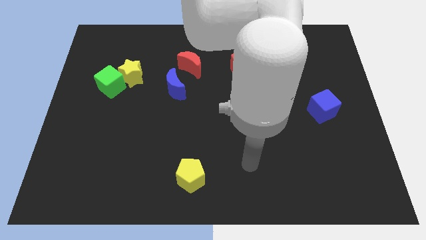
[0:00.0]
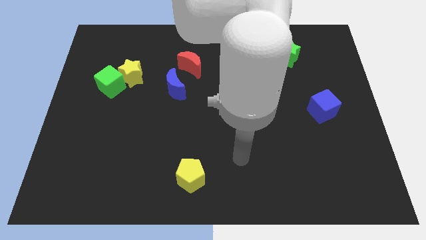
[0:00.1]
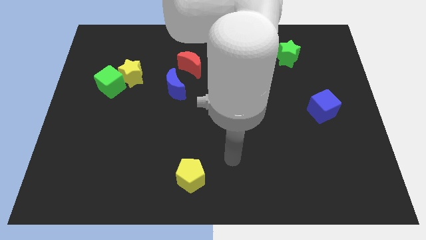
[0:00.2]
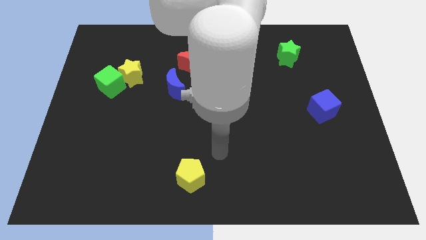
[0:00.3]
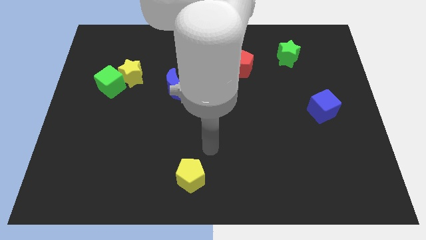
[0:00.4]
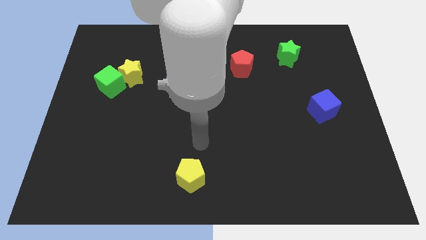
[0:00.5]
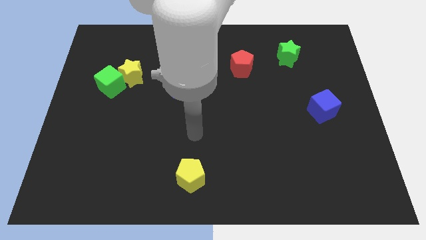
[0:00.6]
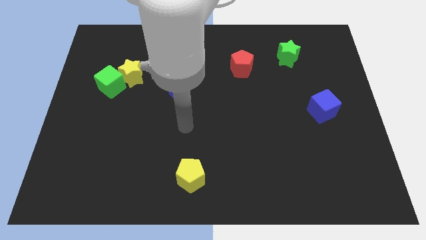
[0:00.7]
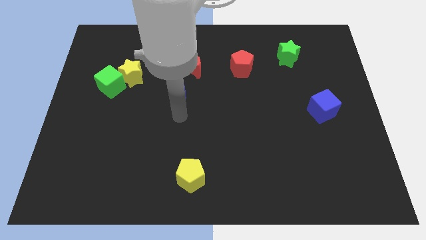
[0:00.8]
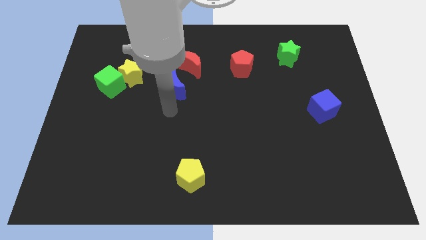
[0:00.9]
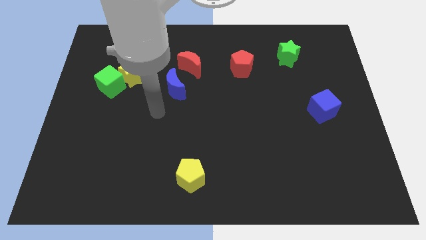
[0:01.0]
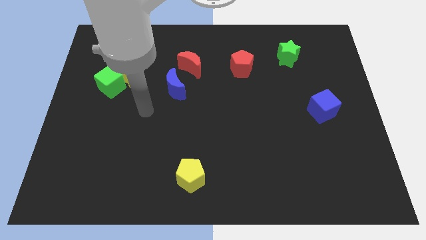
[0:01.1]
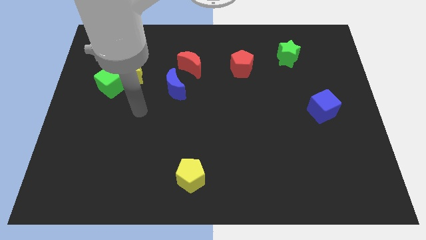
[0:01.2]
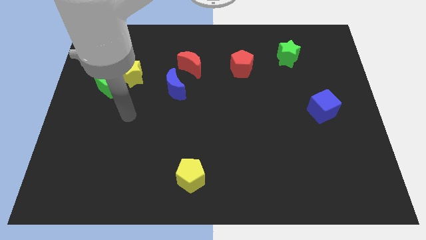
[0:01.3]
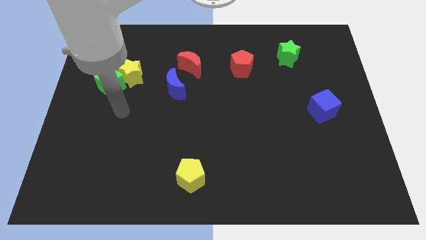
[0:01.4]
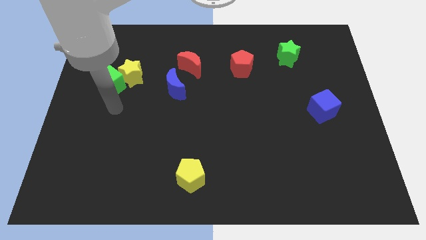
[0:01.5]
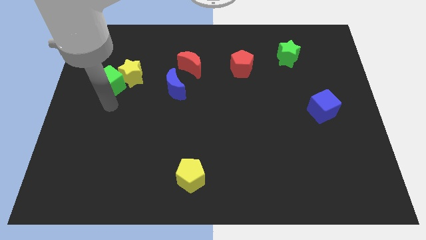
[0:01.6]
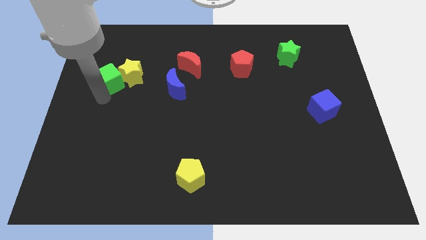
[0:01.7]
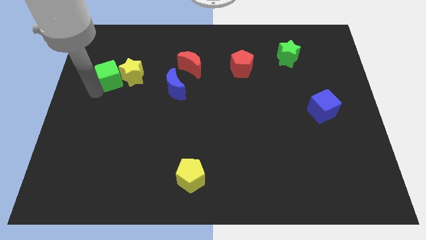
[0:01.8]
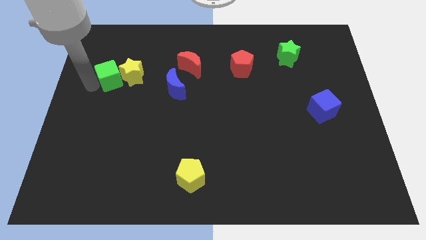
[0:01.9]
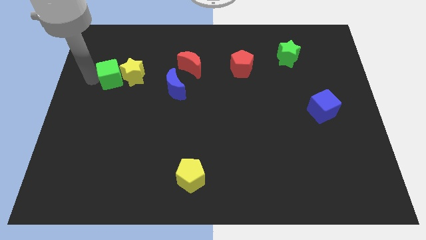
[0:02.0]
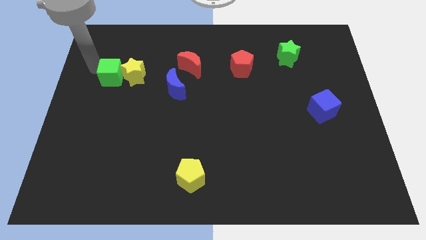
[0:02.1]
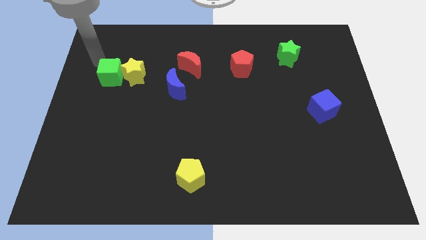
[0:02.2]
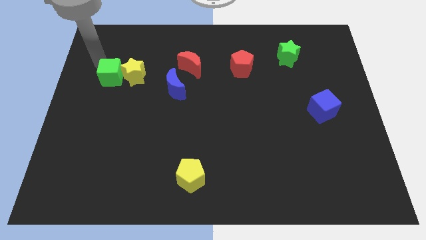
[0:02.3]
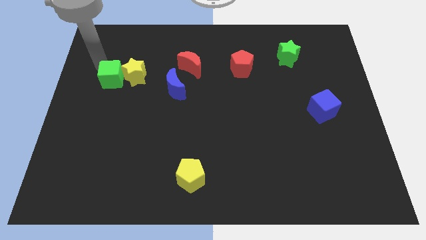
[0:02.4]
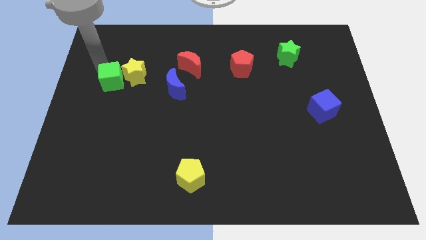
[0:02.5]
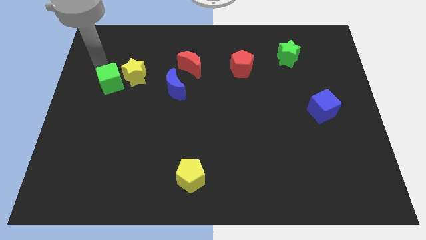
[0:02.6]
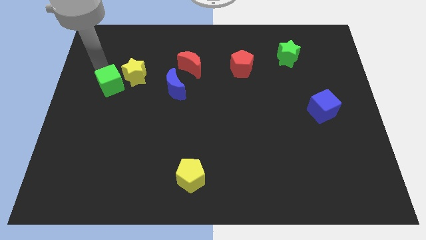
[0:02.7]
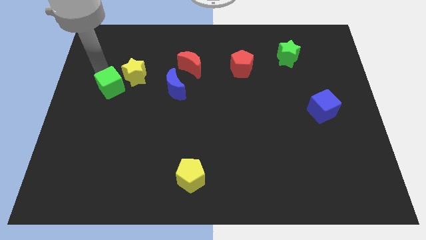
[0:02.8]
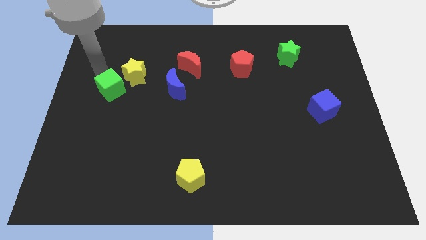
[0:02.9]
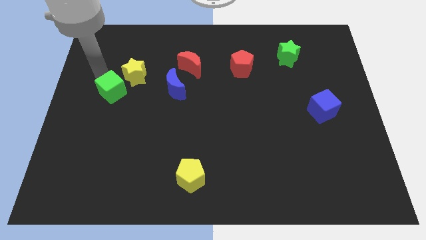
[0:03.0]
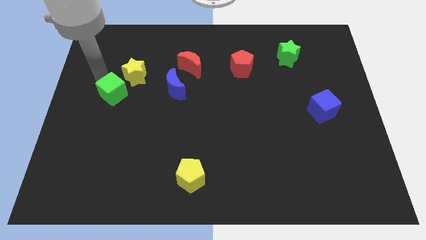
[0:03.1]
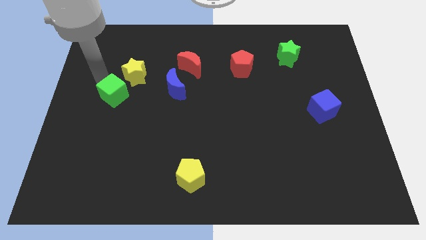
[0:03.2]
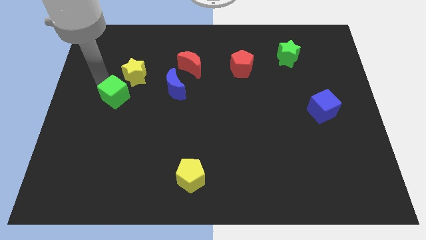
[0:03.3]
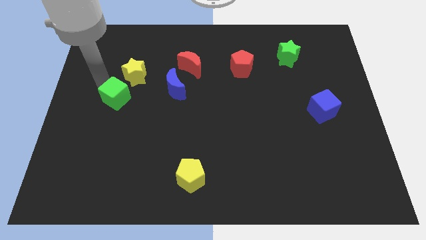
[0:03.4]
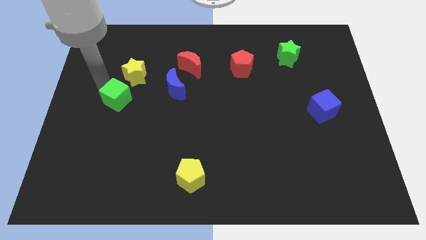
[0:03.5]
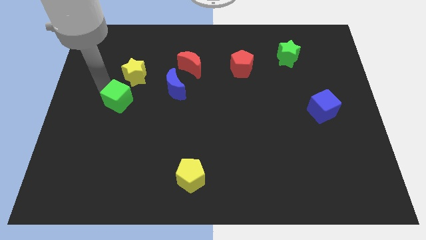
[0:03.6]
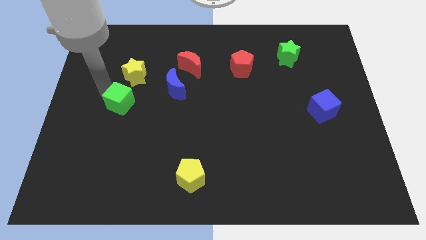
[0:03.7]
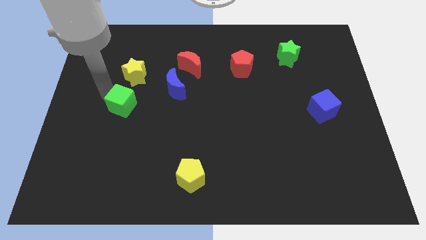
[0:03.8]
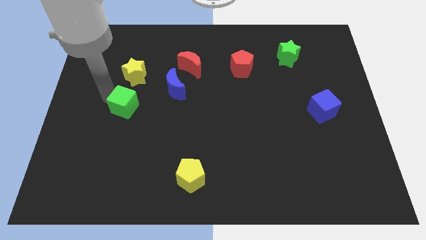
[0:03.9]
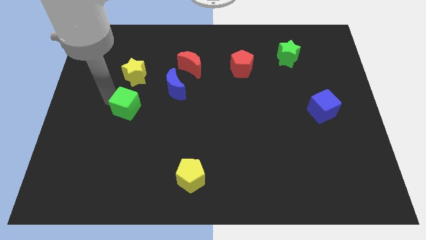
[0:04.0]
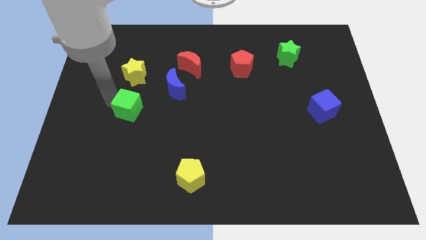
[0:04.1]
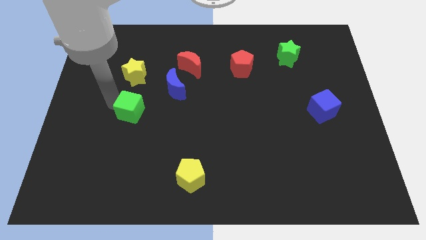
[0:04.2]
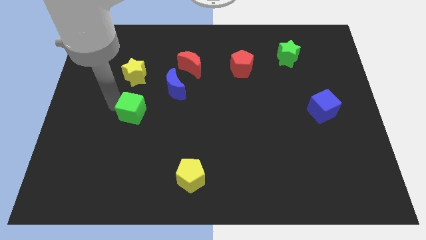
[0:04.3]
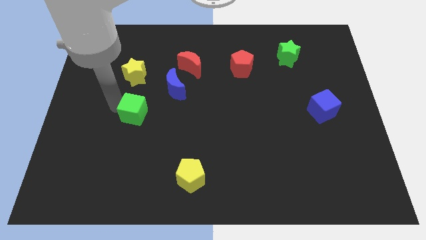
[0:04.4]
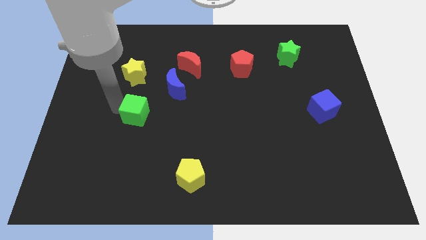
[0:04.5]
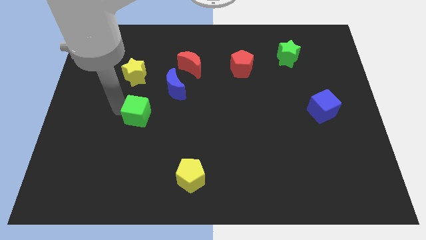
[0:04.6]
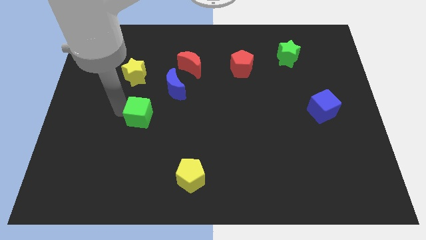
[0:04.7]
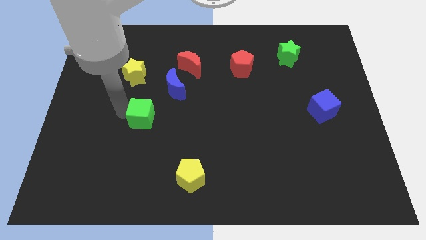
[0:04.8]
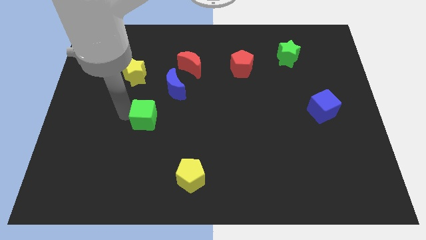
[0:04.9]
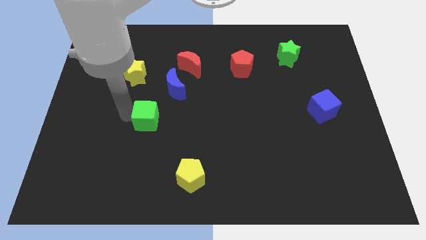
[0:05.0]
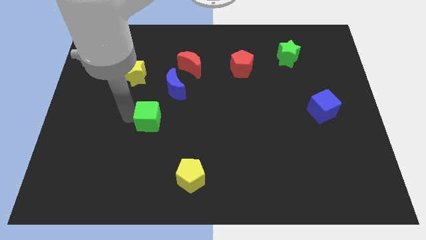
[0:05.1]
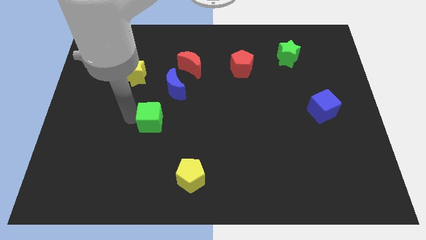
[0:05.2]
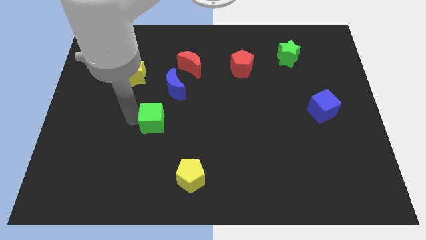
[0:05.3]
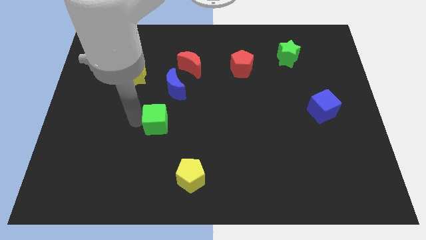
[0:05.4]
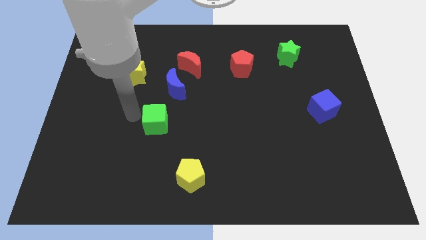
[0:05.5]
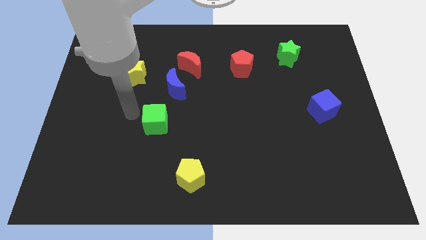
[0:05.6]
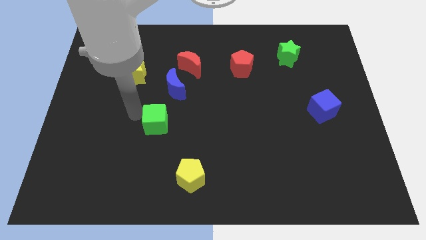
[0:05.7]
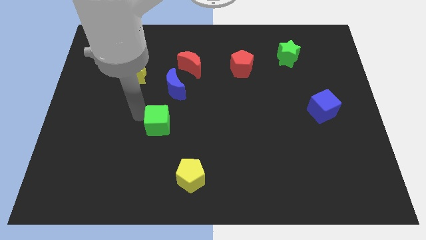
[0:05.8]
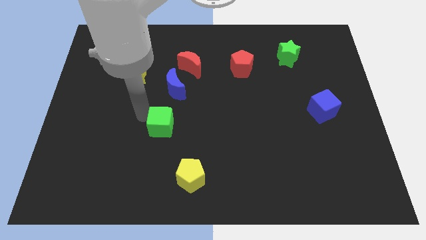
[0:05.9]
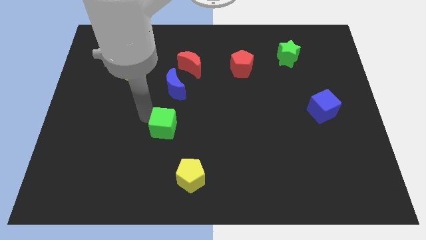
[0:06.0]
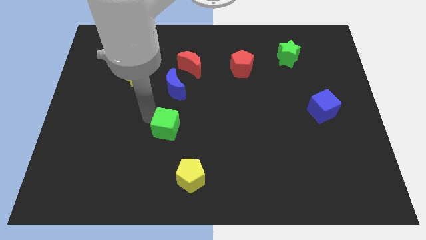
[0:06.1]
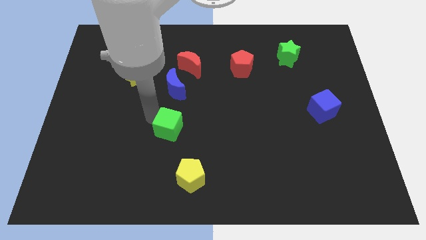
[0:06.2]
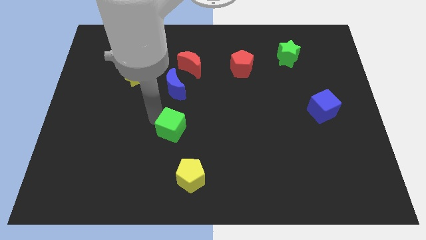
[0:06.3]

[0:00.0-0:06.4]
push the green cube to the top of the yellow pentagon

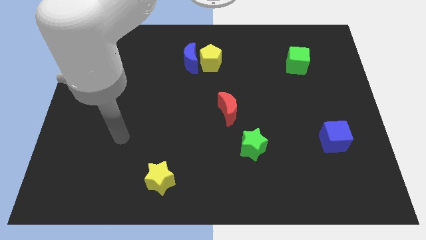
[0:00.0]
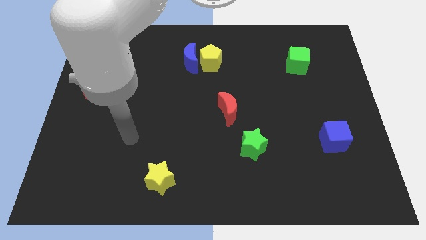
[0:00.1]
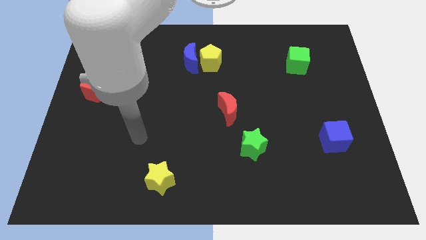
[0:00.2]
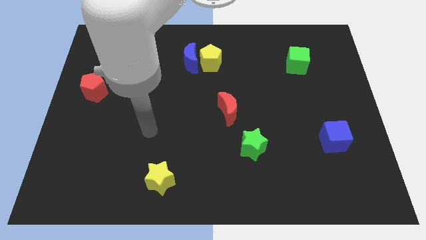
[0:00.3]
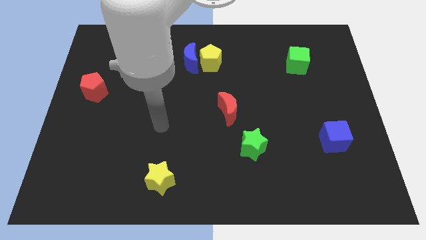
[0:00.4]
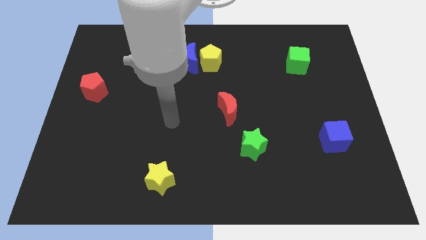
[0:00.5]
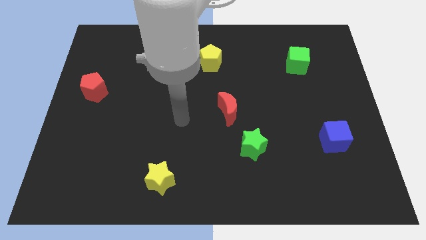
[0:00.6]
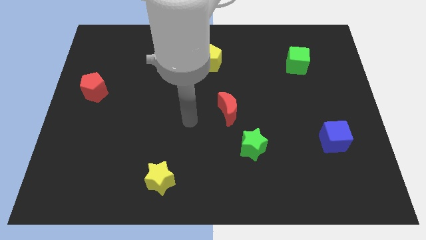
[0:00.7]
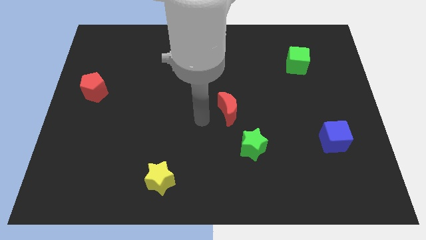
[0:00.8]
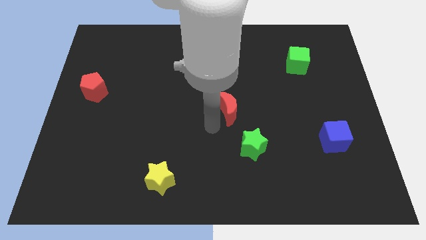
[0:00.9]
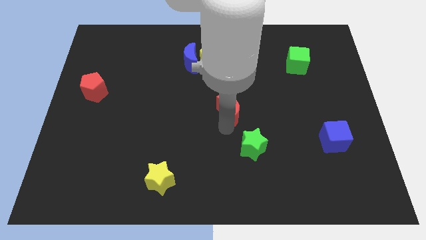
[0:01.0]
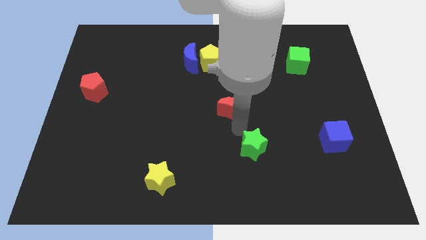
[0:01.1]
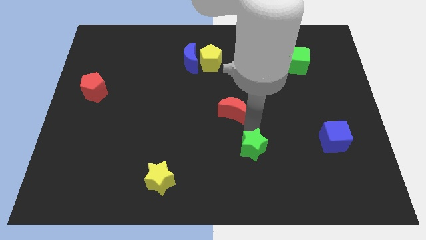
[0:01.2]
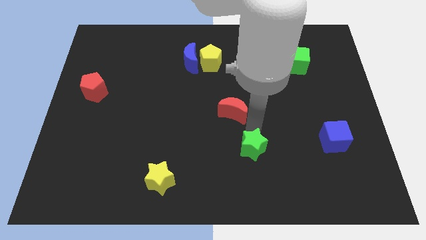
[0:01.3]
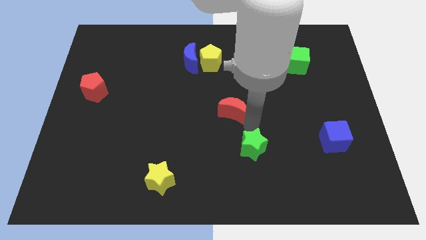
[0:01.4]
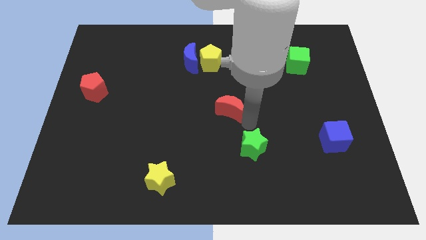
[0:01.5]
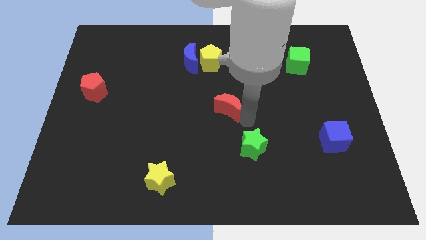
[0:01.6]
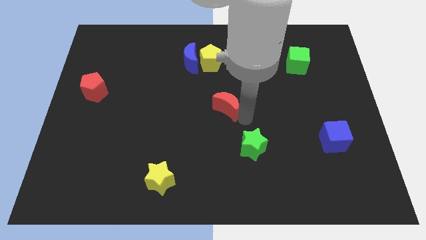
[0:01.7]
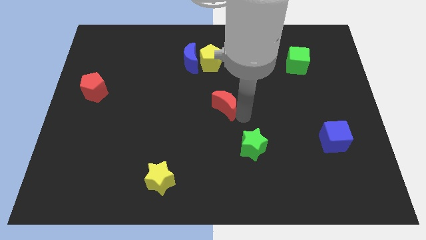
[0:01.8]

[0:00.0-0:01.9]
slide the red moon to the bottom of the yellow pentagon
